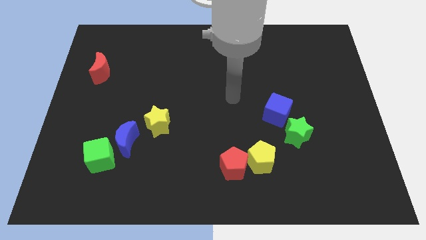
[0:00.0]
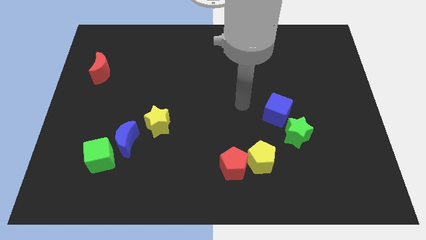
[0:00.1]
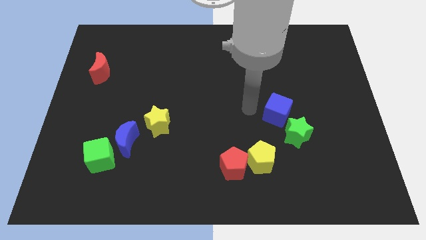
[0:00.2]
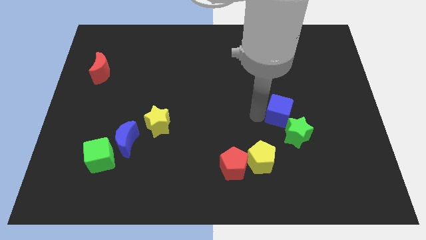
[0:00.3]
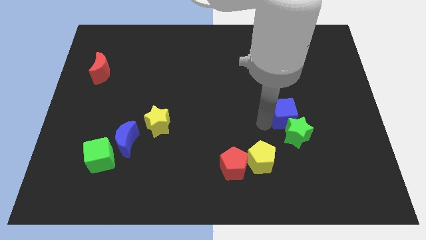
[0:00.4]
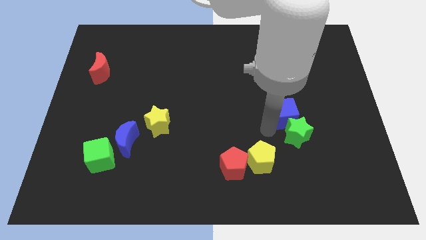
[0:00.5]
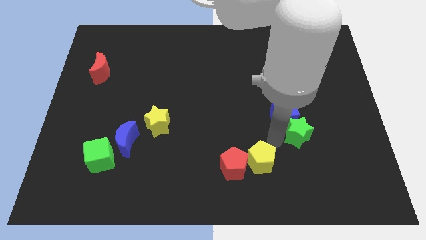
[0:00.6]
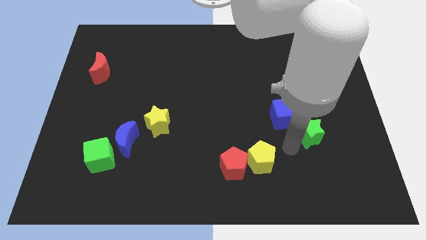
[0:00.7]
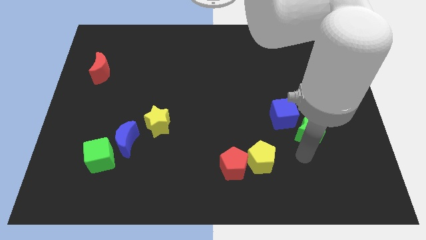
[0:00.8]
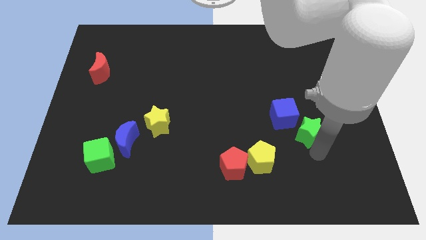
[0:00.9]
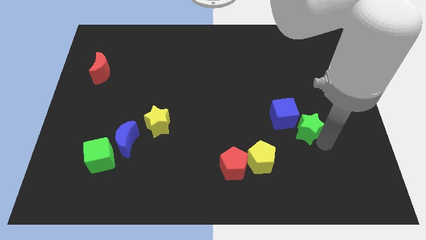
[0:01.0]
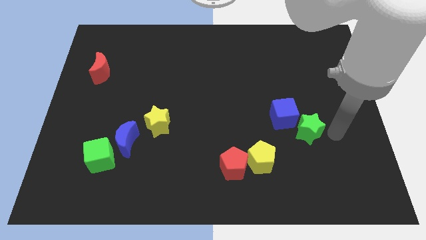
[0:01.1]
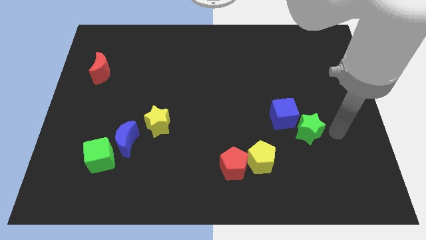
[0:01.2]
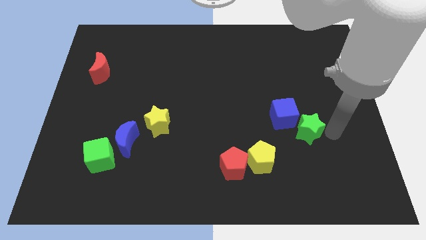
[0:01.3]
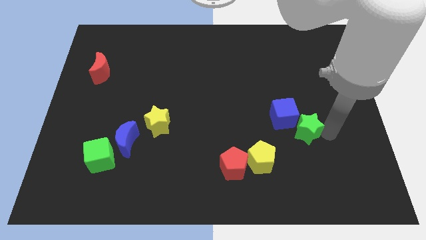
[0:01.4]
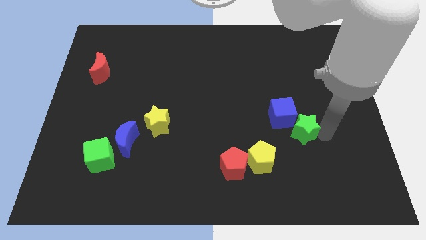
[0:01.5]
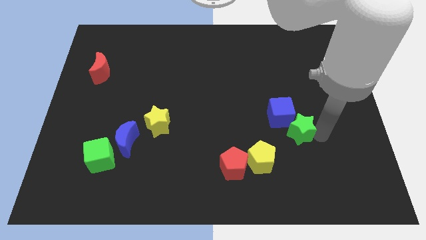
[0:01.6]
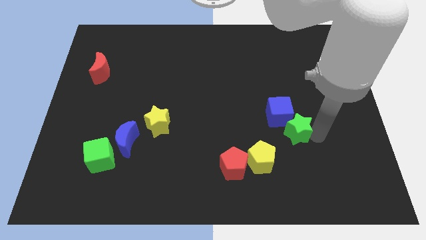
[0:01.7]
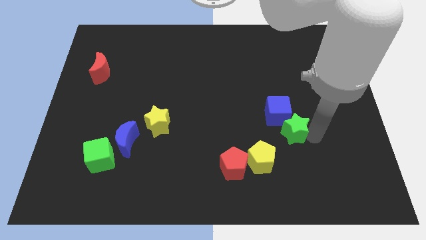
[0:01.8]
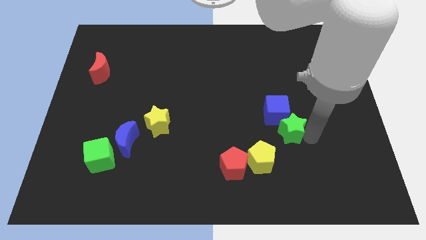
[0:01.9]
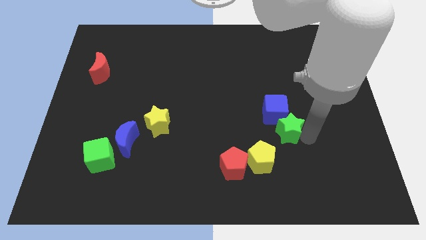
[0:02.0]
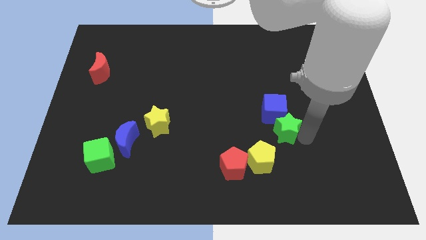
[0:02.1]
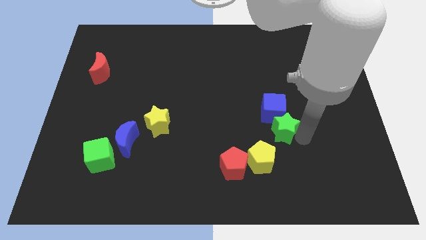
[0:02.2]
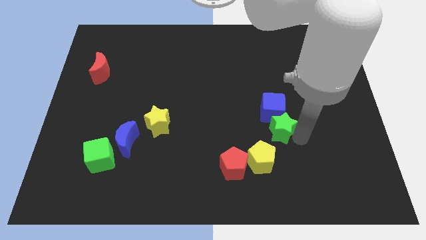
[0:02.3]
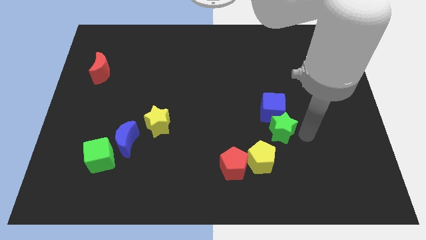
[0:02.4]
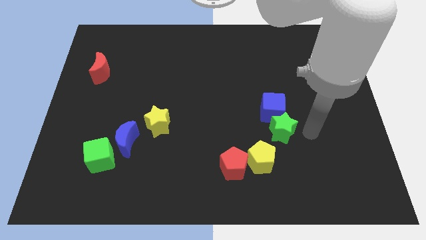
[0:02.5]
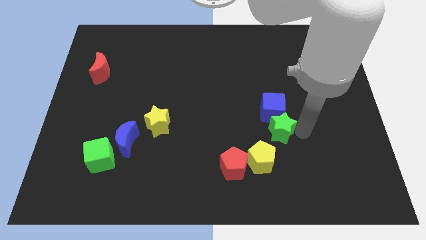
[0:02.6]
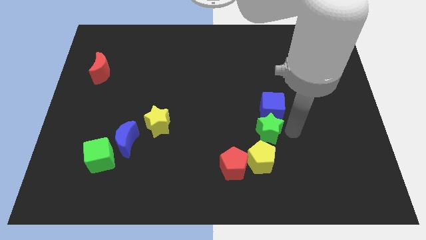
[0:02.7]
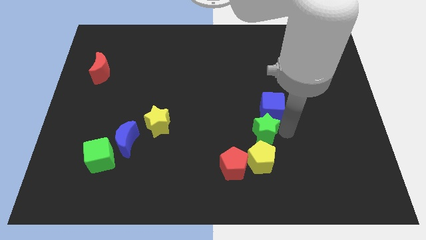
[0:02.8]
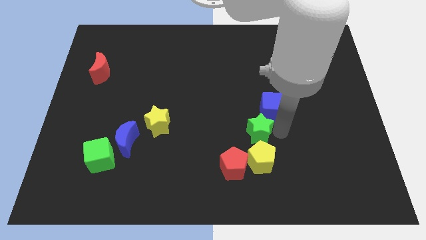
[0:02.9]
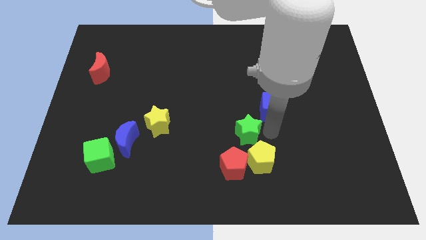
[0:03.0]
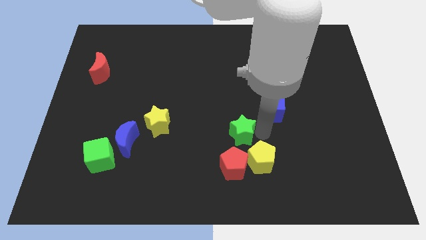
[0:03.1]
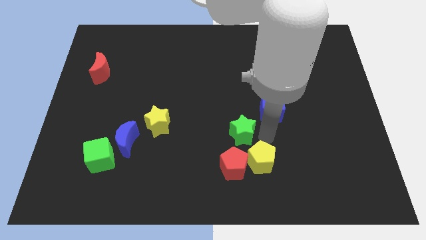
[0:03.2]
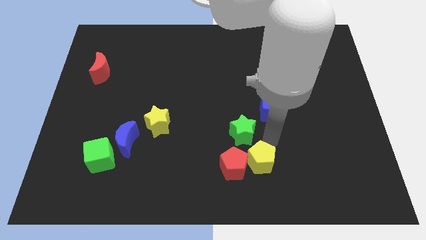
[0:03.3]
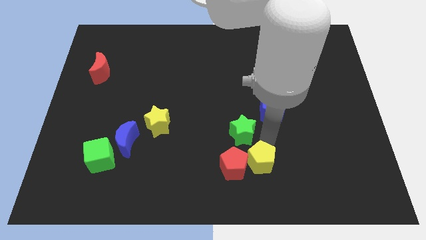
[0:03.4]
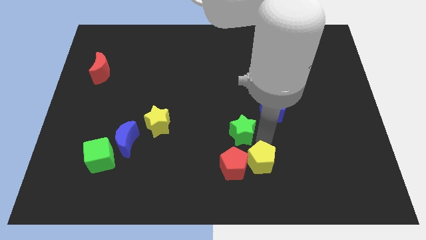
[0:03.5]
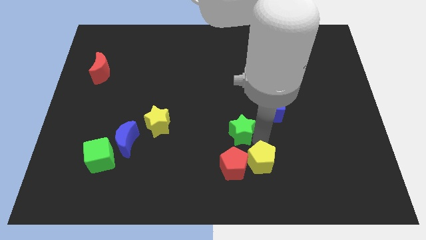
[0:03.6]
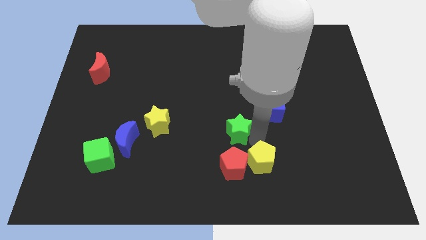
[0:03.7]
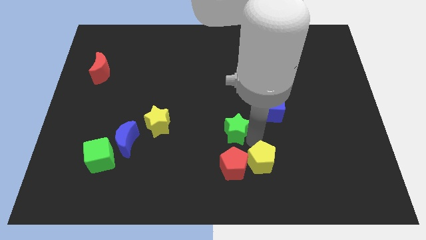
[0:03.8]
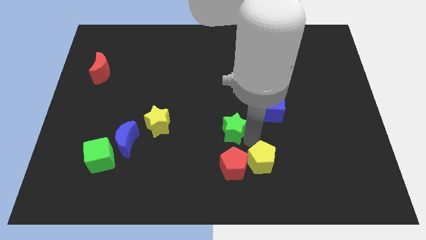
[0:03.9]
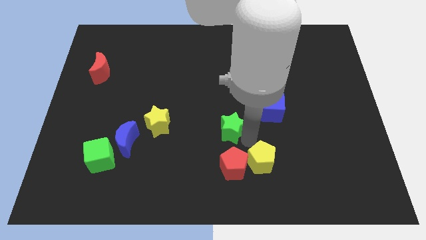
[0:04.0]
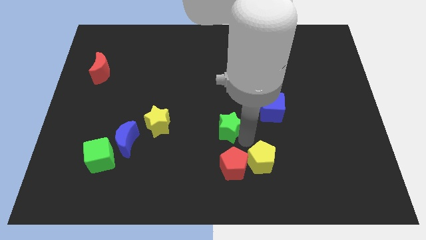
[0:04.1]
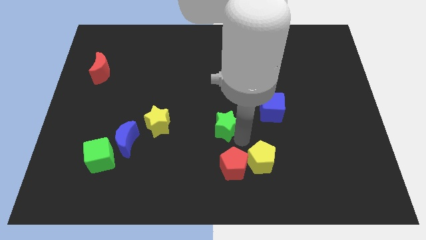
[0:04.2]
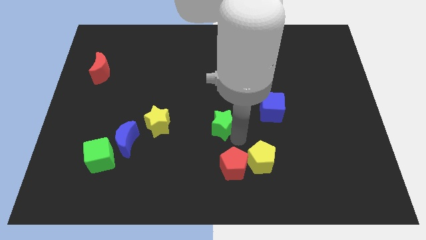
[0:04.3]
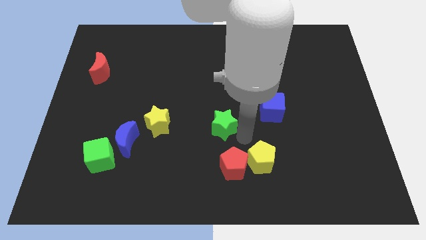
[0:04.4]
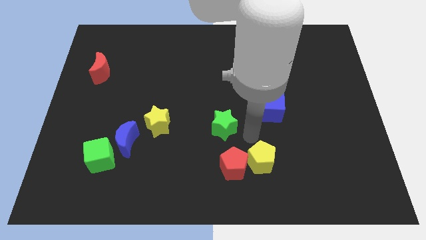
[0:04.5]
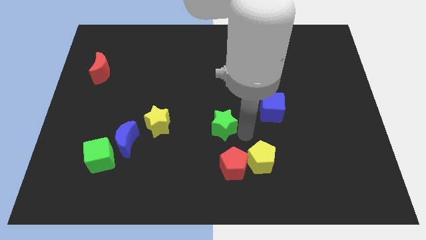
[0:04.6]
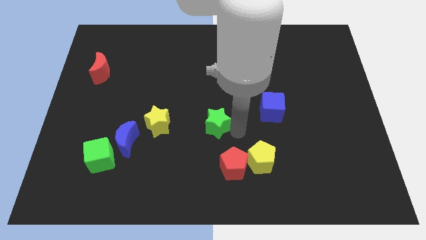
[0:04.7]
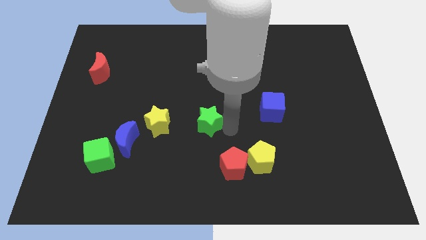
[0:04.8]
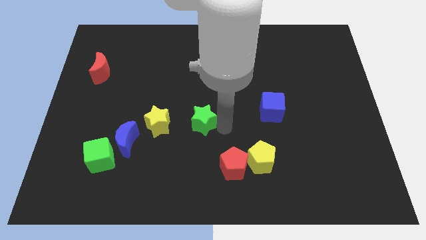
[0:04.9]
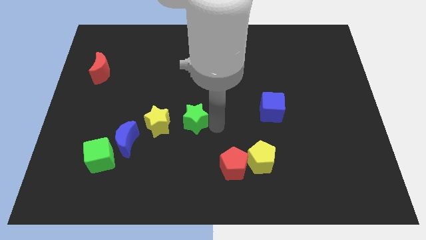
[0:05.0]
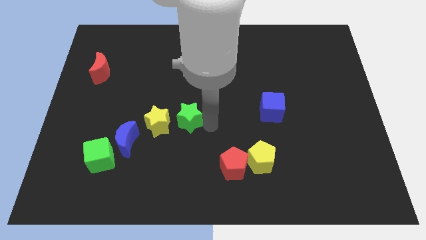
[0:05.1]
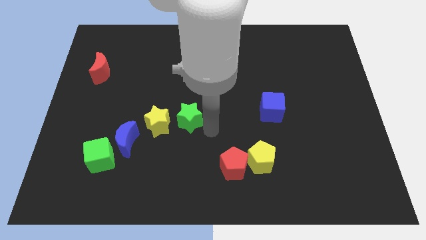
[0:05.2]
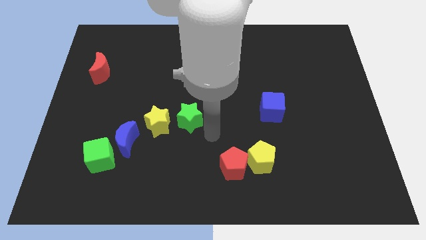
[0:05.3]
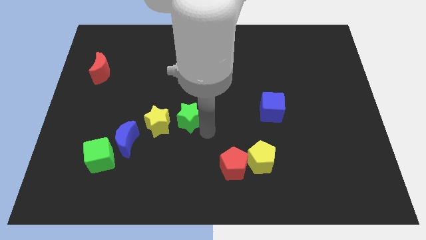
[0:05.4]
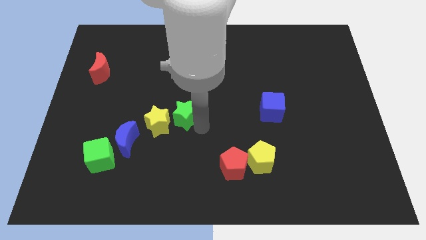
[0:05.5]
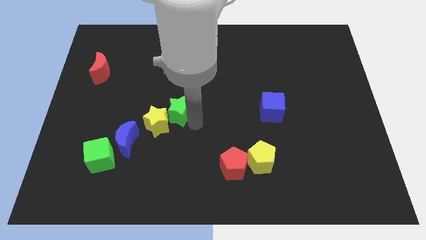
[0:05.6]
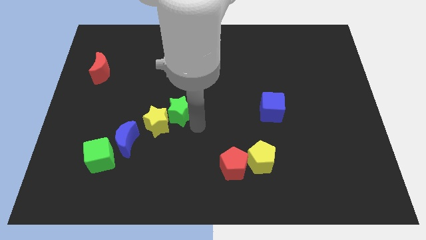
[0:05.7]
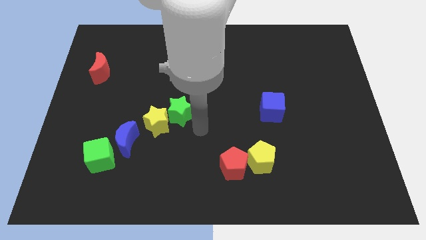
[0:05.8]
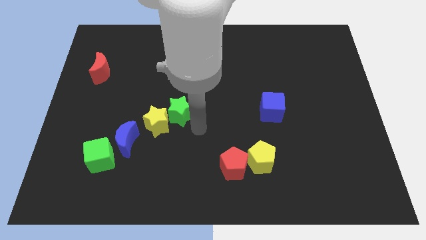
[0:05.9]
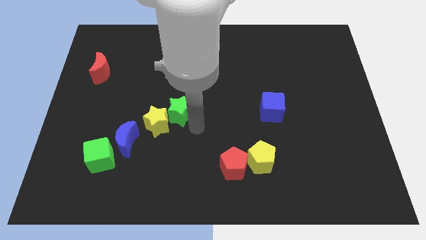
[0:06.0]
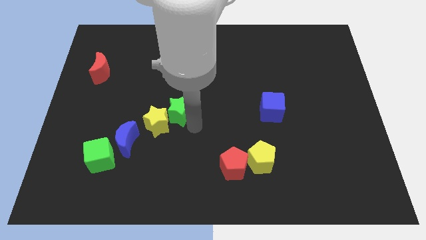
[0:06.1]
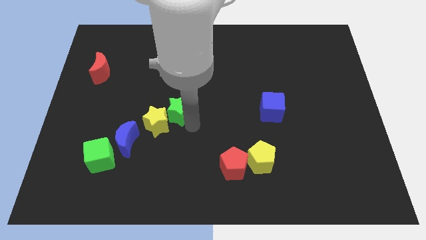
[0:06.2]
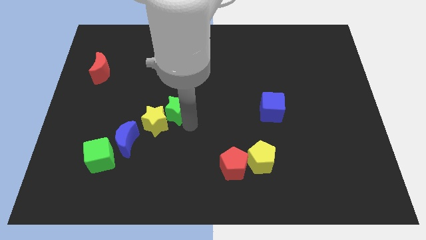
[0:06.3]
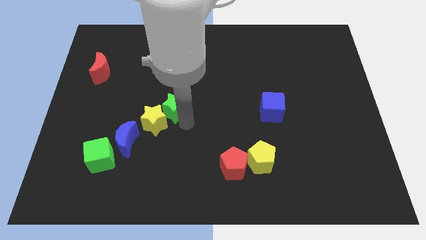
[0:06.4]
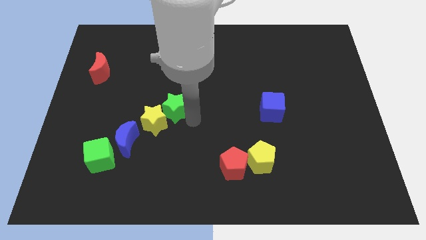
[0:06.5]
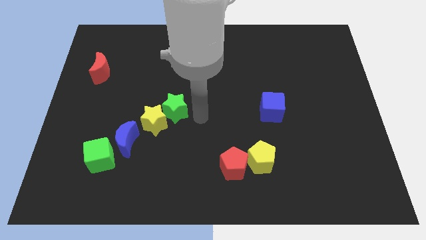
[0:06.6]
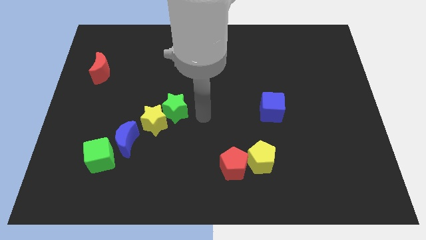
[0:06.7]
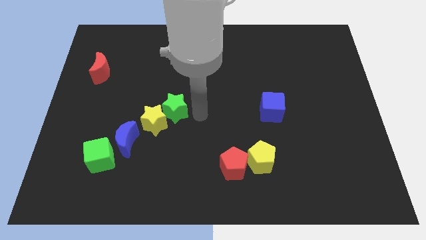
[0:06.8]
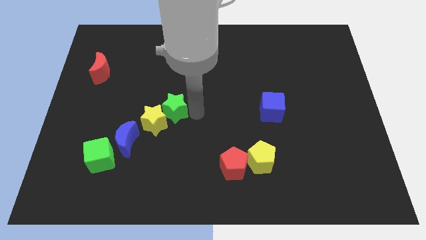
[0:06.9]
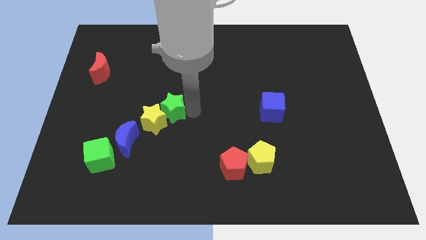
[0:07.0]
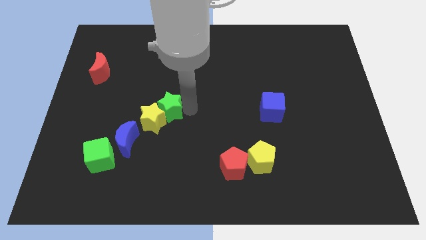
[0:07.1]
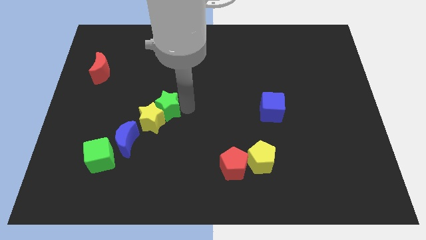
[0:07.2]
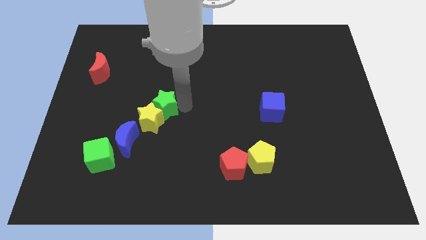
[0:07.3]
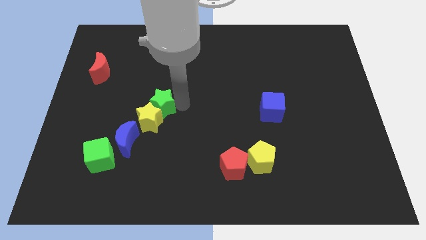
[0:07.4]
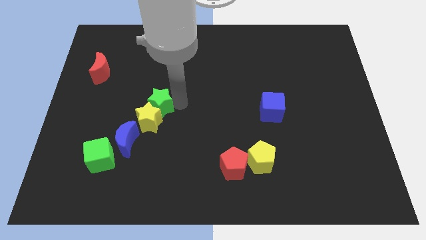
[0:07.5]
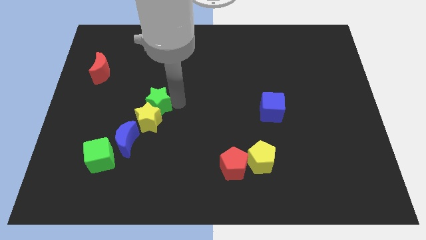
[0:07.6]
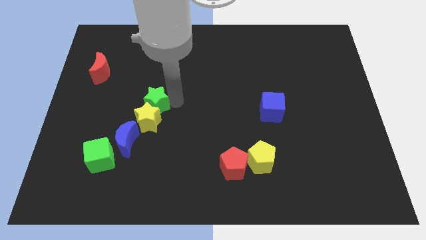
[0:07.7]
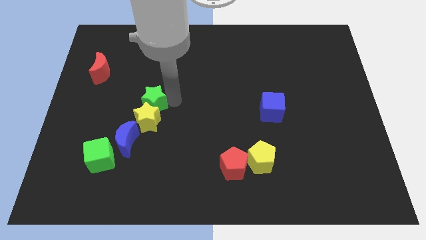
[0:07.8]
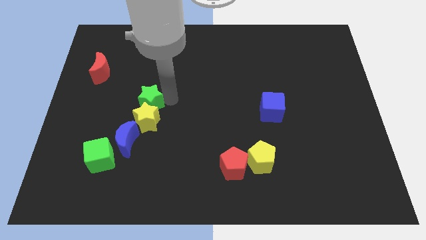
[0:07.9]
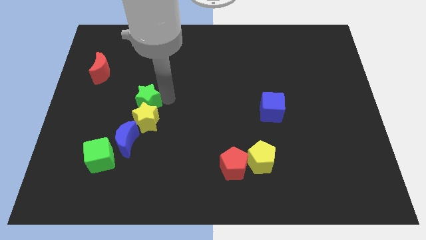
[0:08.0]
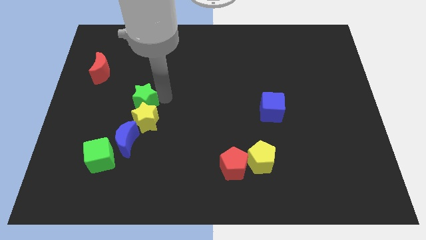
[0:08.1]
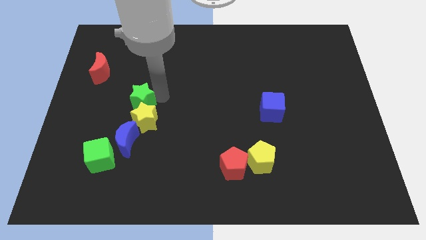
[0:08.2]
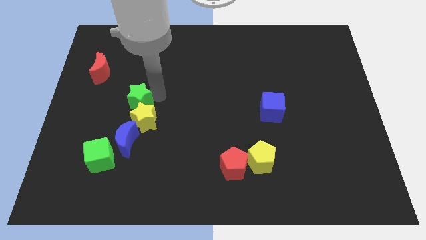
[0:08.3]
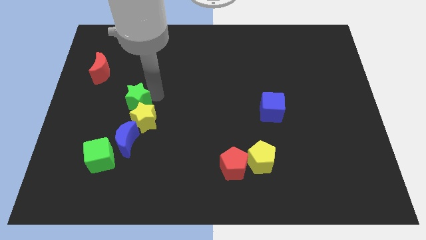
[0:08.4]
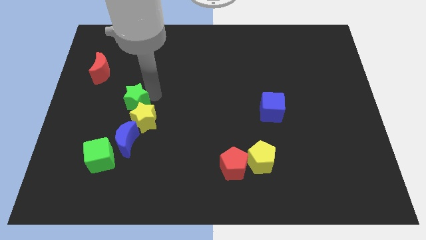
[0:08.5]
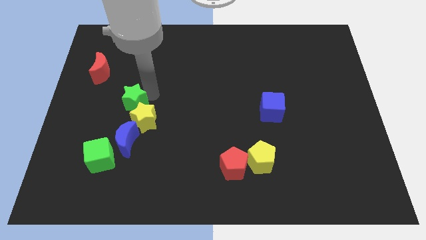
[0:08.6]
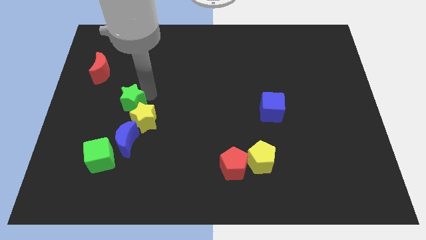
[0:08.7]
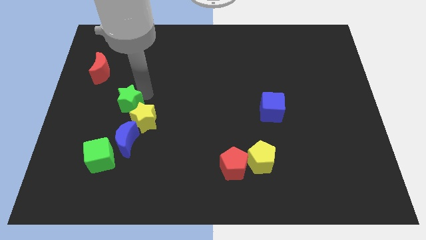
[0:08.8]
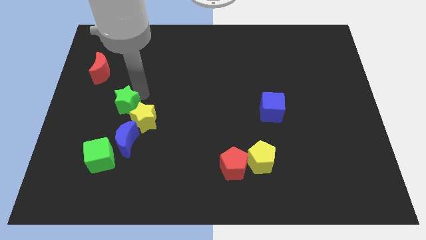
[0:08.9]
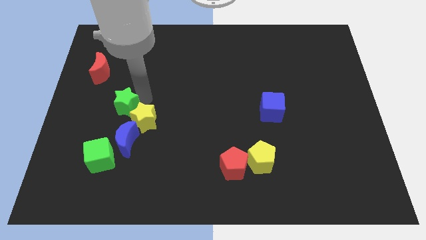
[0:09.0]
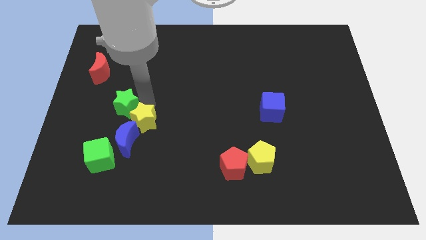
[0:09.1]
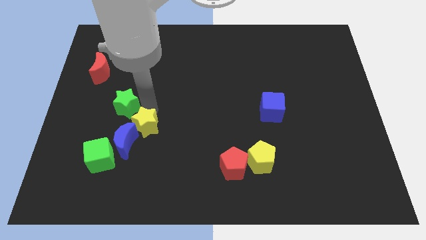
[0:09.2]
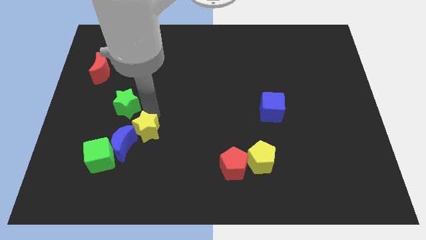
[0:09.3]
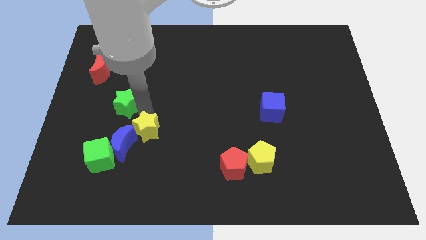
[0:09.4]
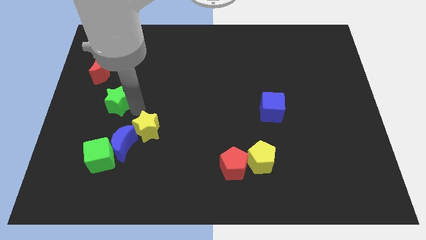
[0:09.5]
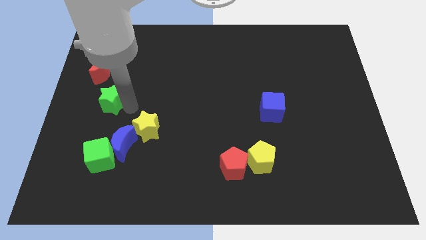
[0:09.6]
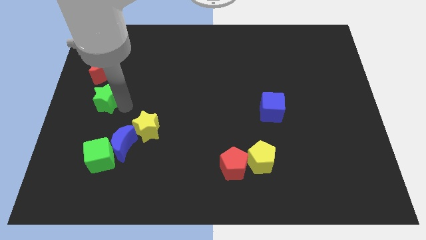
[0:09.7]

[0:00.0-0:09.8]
move the green star to the center left
